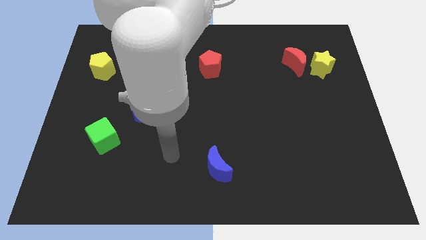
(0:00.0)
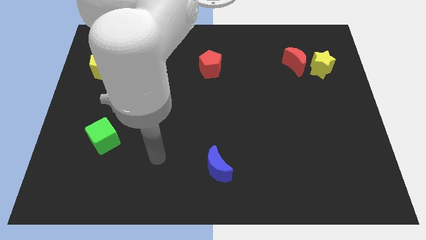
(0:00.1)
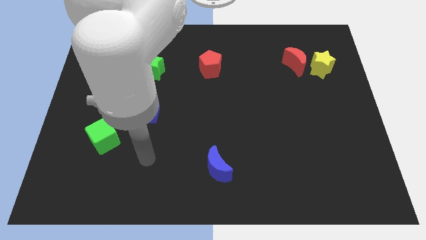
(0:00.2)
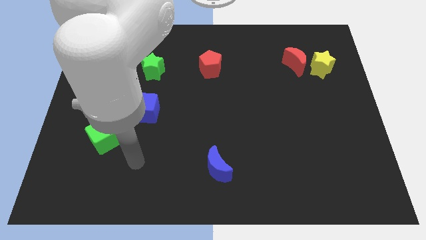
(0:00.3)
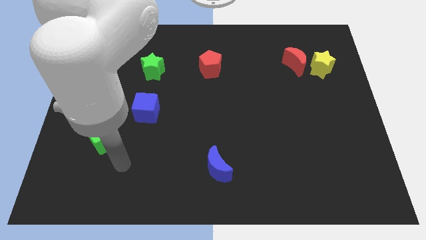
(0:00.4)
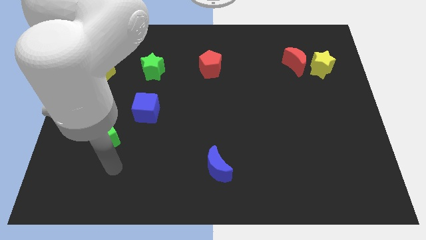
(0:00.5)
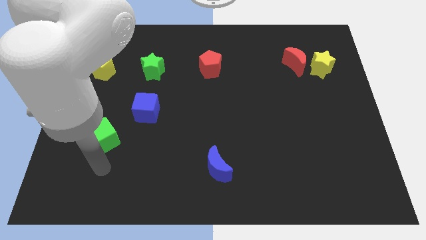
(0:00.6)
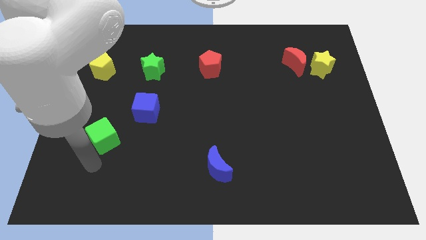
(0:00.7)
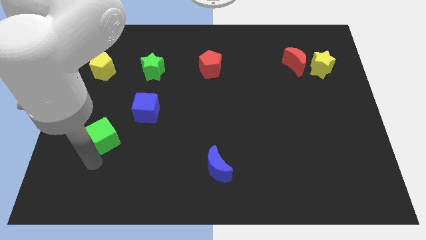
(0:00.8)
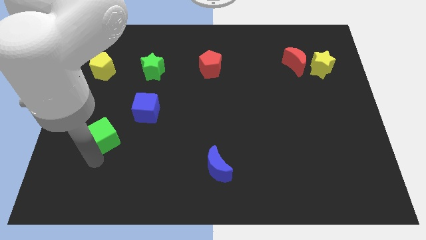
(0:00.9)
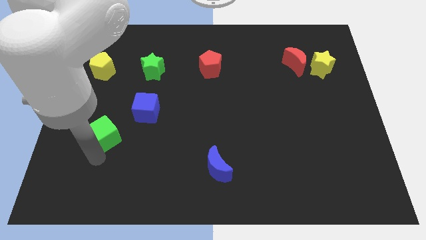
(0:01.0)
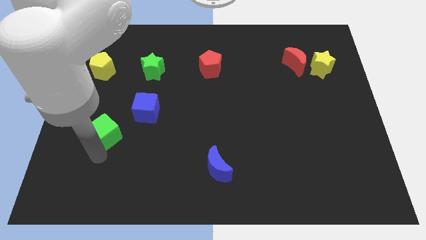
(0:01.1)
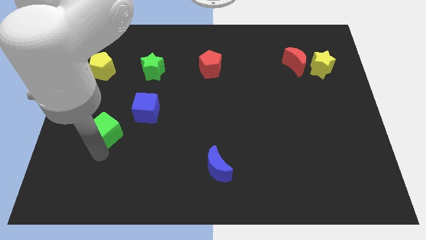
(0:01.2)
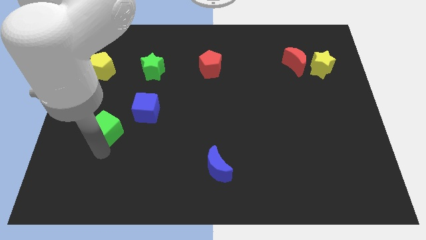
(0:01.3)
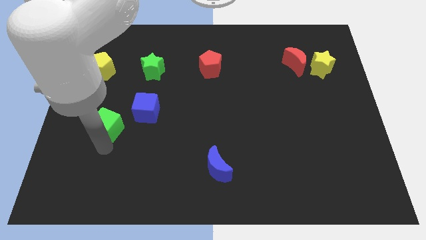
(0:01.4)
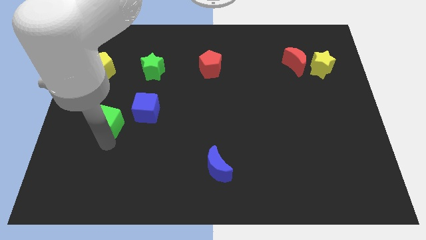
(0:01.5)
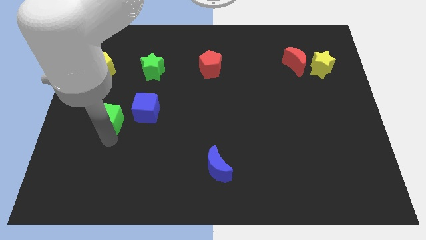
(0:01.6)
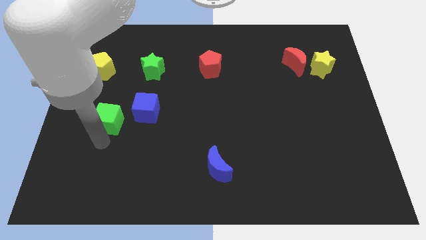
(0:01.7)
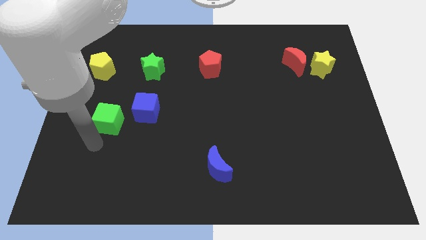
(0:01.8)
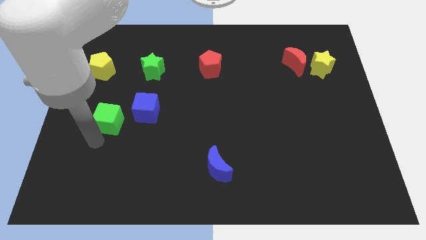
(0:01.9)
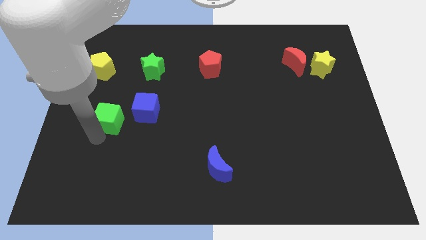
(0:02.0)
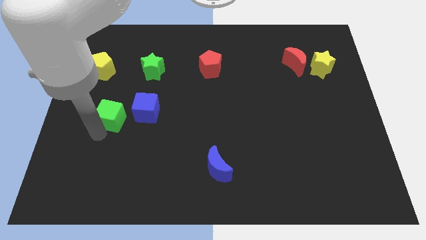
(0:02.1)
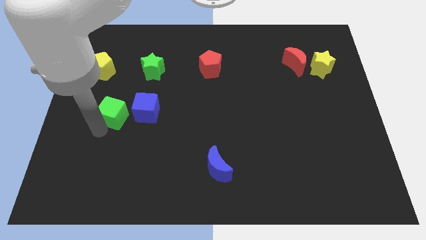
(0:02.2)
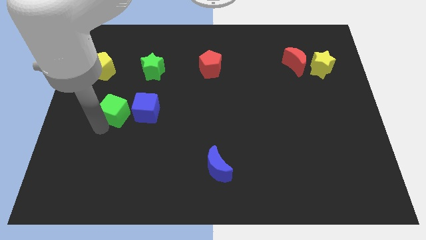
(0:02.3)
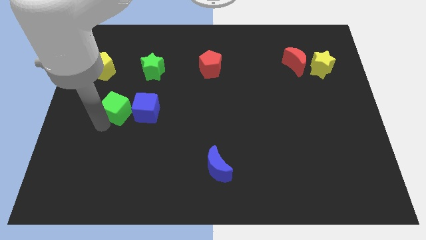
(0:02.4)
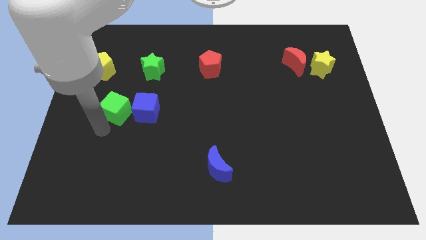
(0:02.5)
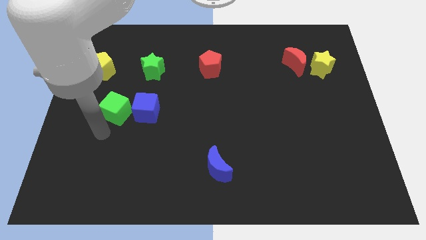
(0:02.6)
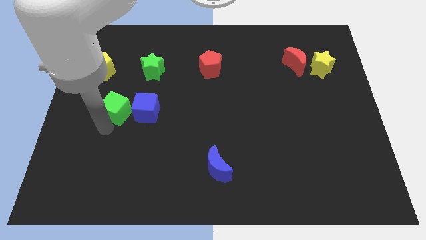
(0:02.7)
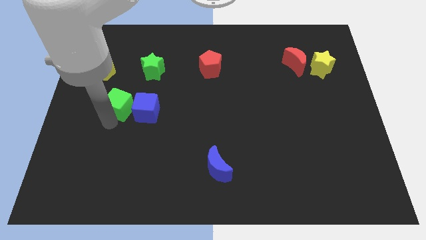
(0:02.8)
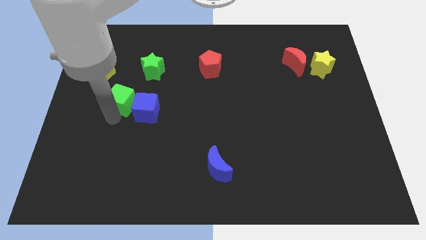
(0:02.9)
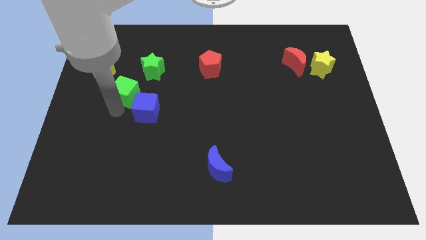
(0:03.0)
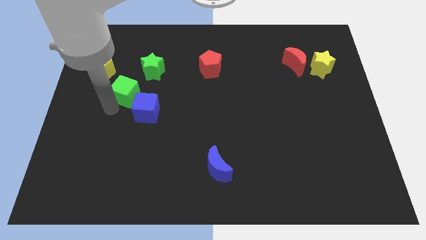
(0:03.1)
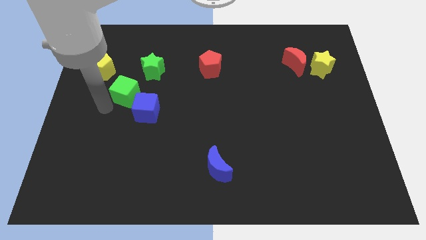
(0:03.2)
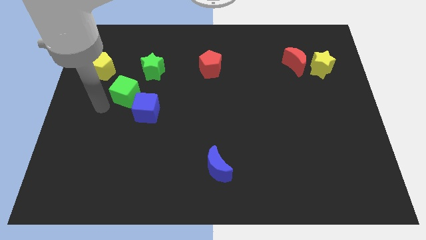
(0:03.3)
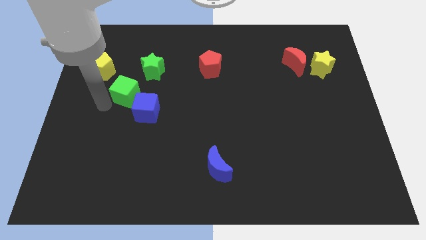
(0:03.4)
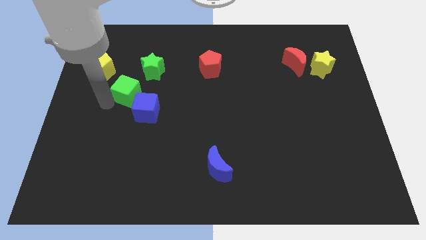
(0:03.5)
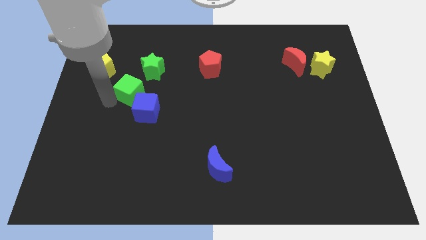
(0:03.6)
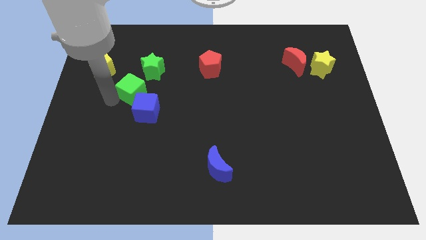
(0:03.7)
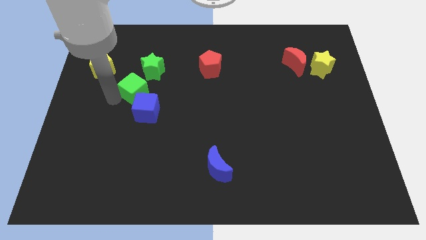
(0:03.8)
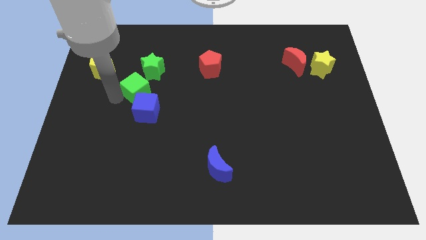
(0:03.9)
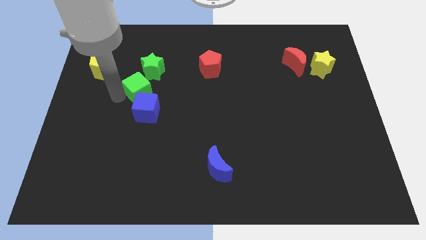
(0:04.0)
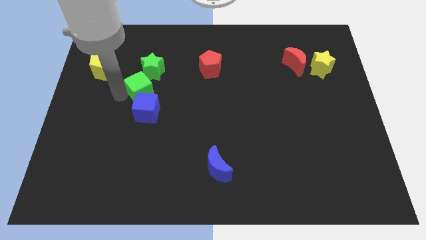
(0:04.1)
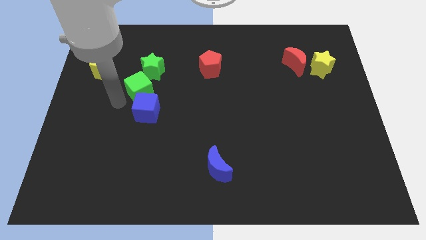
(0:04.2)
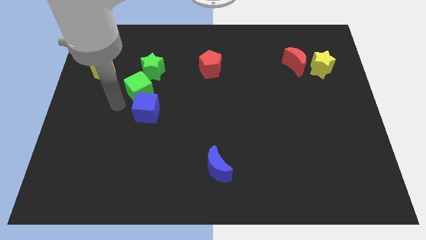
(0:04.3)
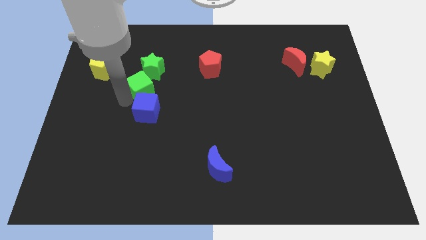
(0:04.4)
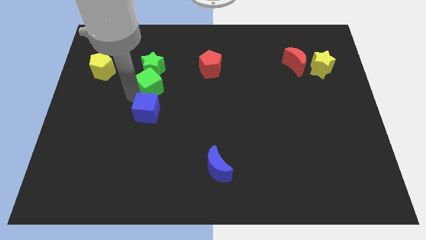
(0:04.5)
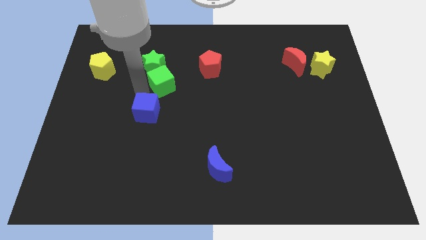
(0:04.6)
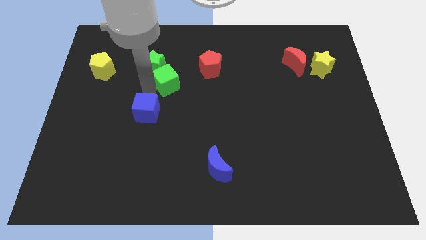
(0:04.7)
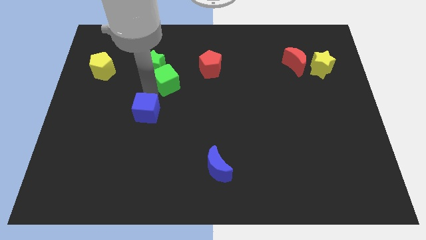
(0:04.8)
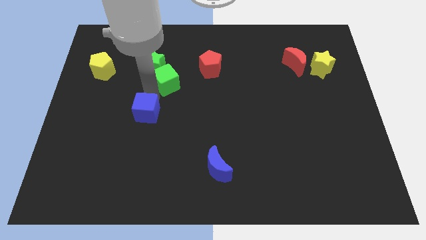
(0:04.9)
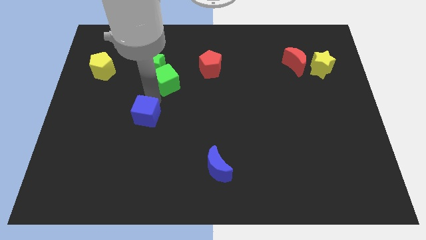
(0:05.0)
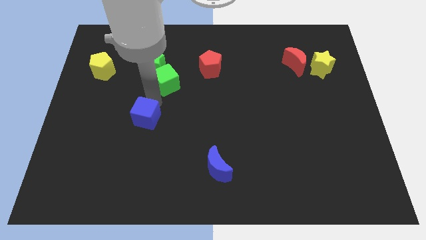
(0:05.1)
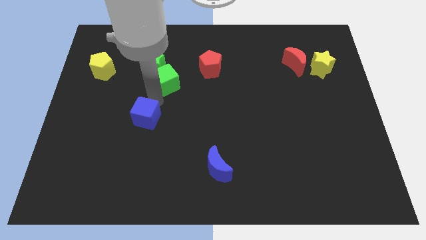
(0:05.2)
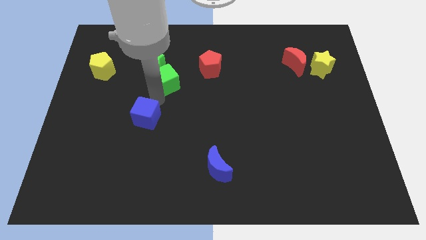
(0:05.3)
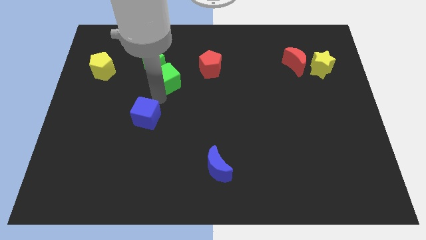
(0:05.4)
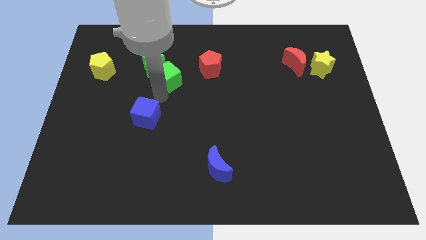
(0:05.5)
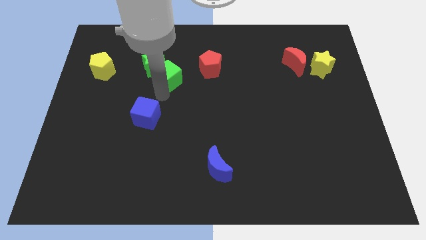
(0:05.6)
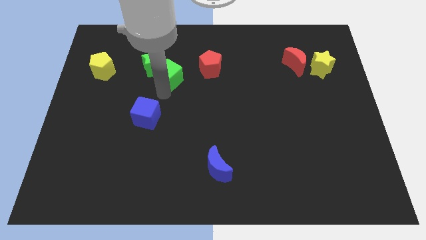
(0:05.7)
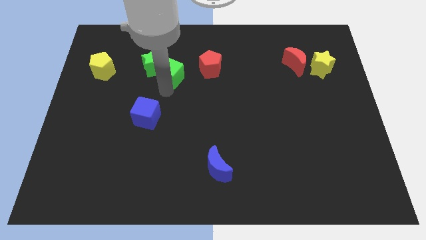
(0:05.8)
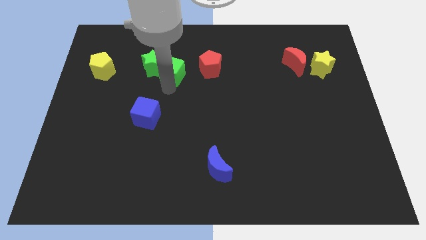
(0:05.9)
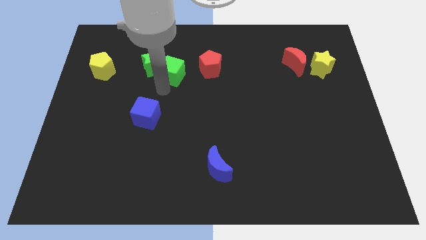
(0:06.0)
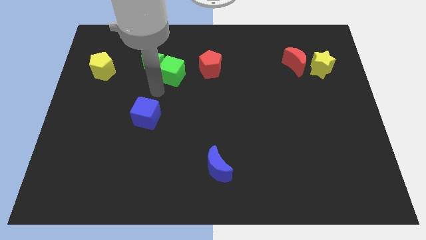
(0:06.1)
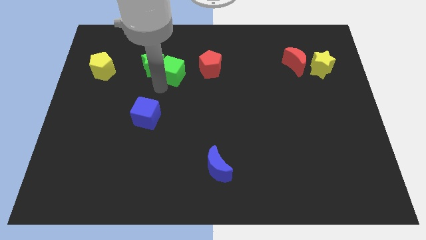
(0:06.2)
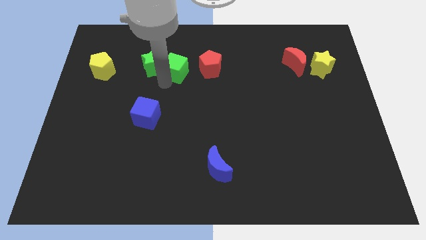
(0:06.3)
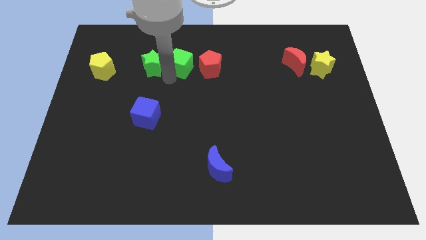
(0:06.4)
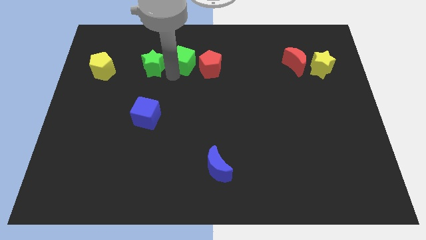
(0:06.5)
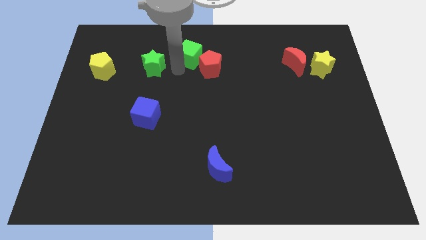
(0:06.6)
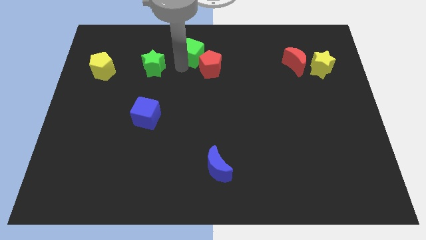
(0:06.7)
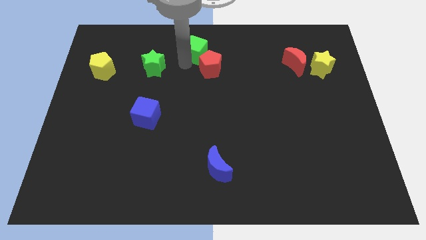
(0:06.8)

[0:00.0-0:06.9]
slide the green cube to the top

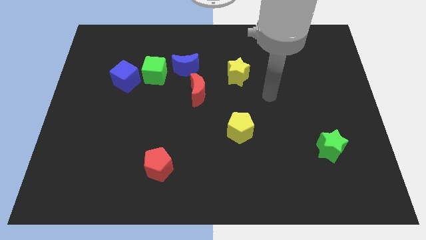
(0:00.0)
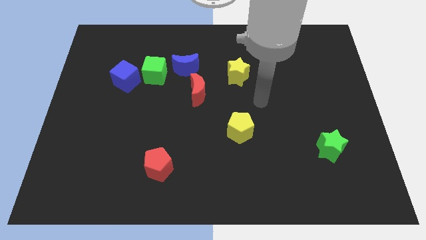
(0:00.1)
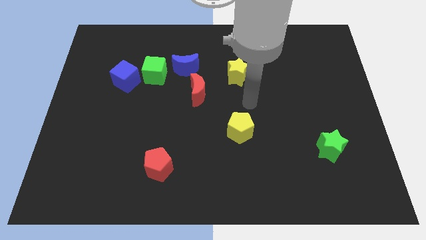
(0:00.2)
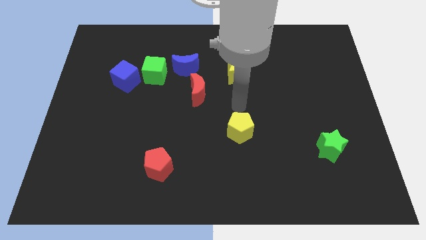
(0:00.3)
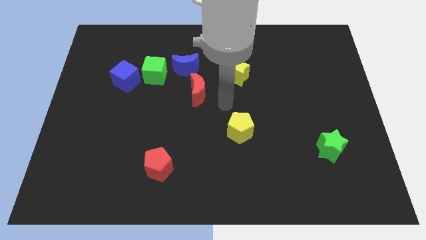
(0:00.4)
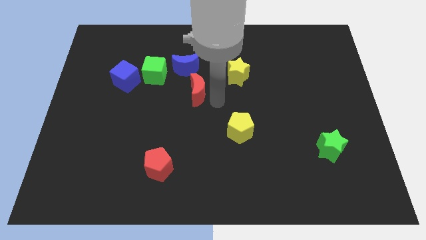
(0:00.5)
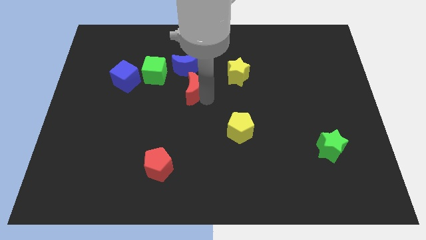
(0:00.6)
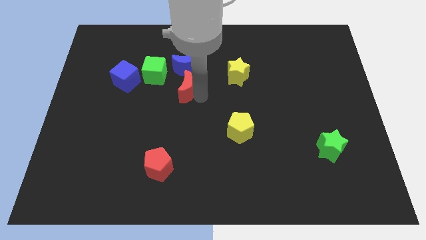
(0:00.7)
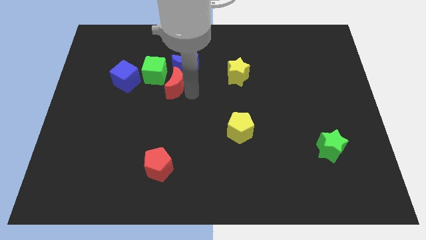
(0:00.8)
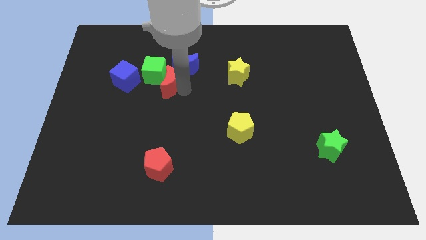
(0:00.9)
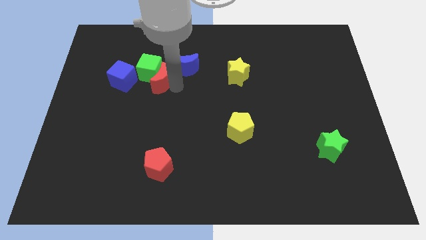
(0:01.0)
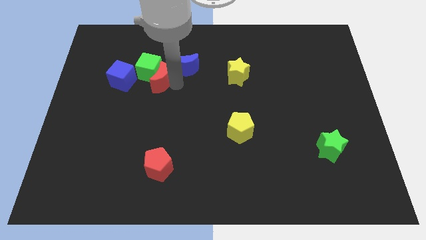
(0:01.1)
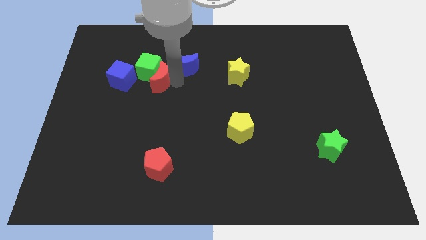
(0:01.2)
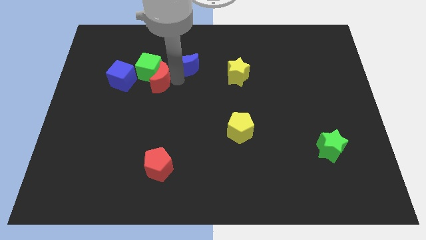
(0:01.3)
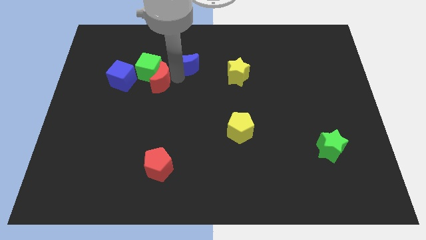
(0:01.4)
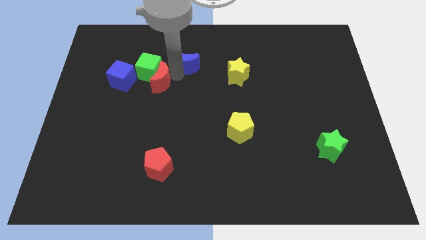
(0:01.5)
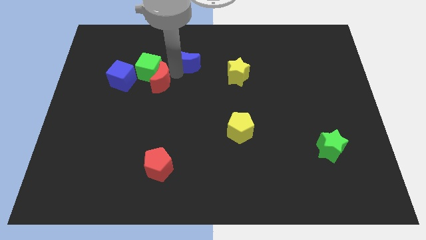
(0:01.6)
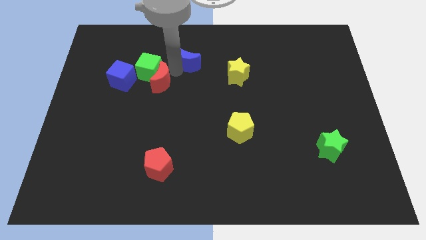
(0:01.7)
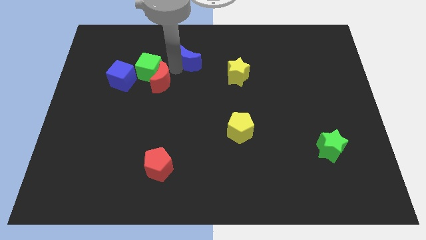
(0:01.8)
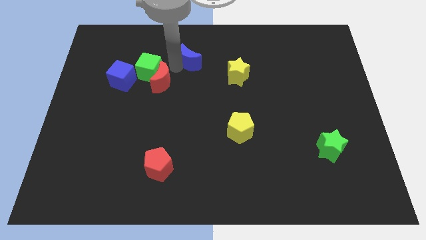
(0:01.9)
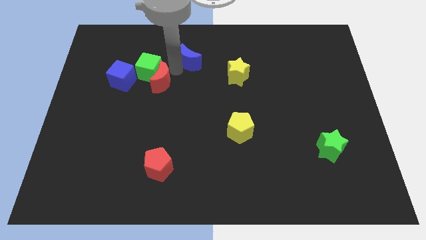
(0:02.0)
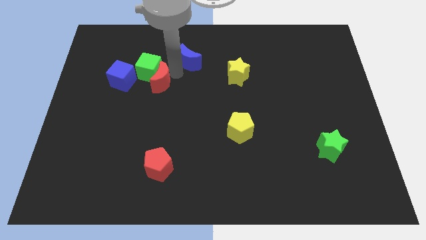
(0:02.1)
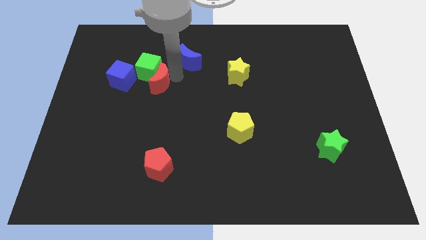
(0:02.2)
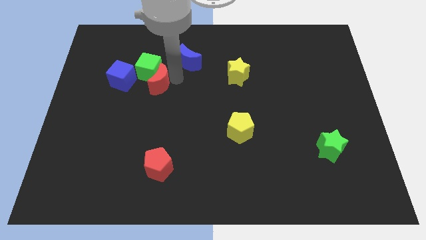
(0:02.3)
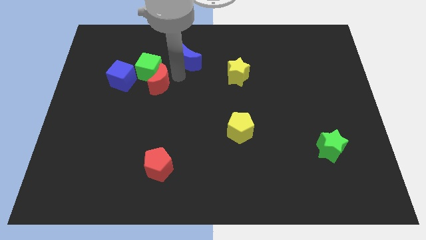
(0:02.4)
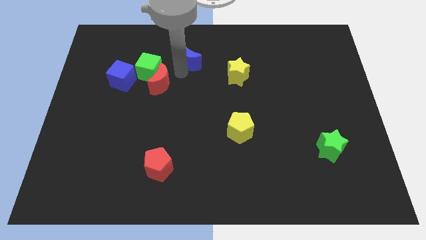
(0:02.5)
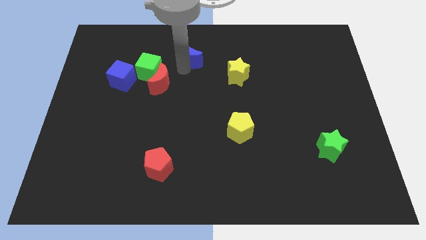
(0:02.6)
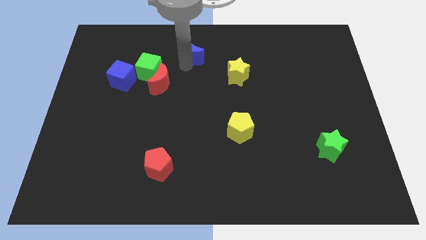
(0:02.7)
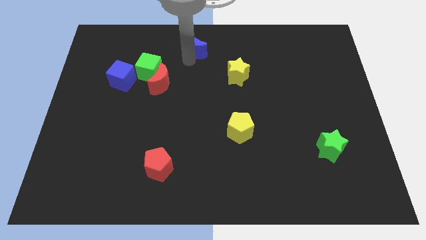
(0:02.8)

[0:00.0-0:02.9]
put the blue moon to the top
